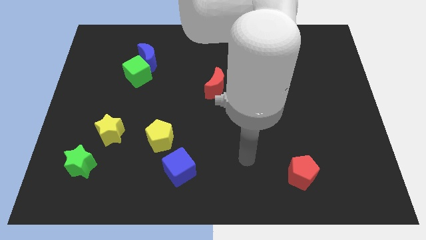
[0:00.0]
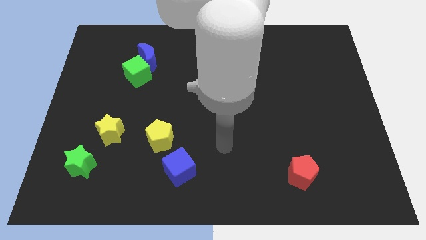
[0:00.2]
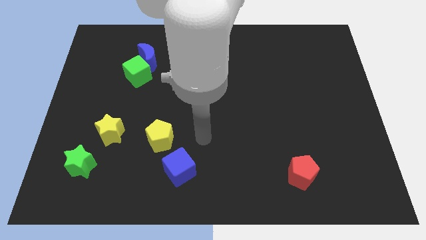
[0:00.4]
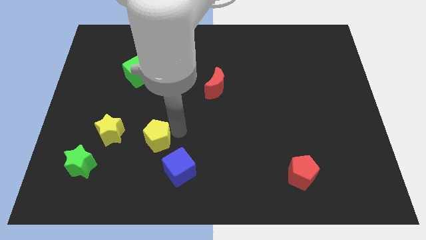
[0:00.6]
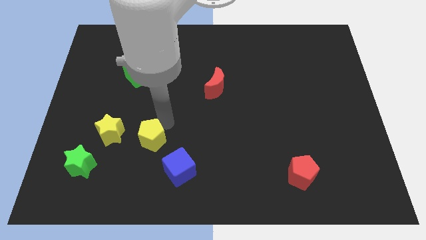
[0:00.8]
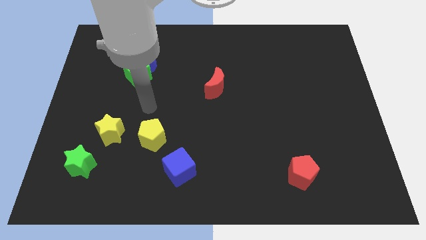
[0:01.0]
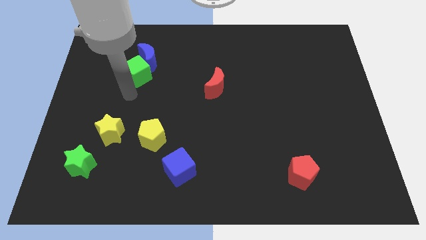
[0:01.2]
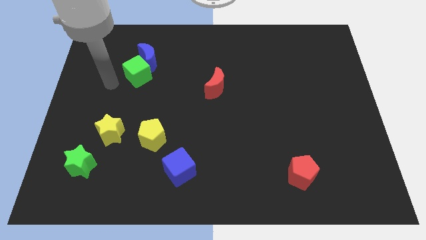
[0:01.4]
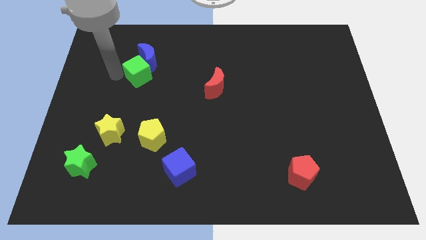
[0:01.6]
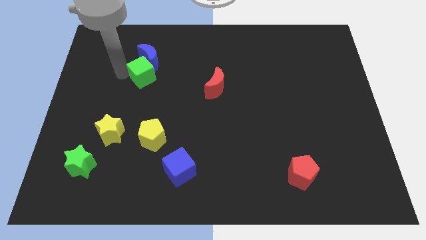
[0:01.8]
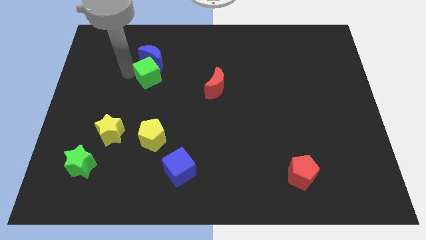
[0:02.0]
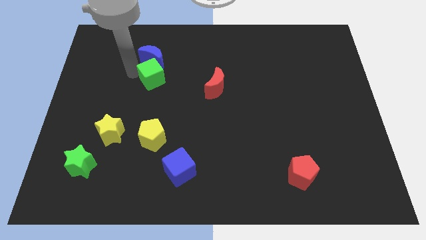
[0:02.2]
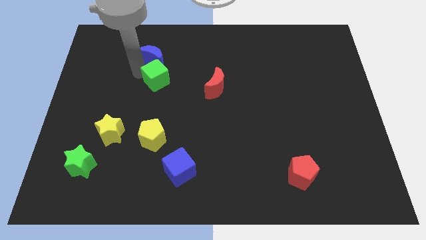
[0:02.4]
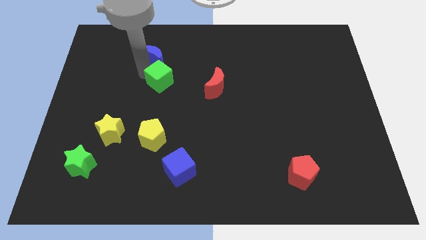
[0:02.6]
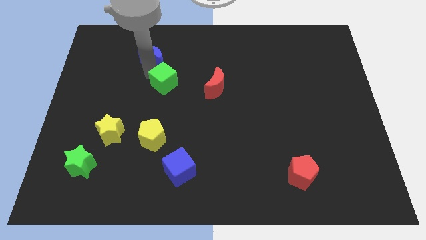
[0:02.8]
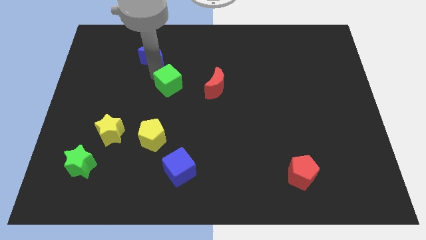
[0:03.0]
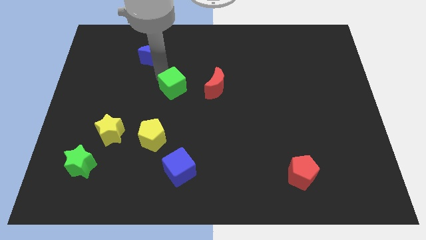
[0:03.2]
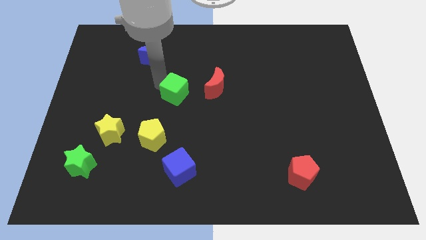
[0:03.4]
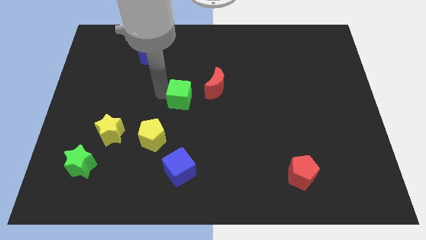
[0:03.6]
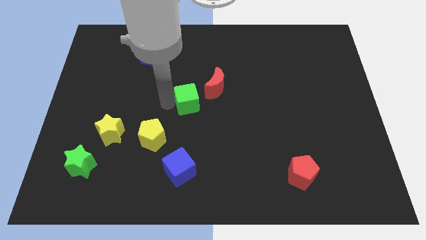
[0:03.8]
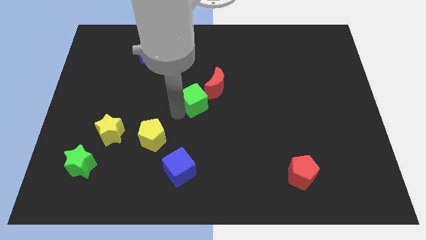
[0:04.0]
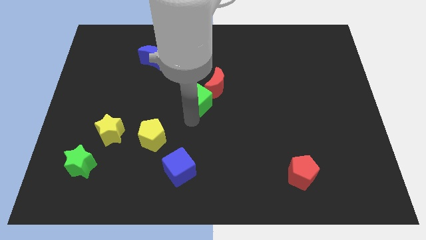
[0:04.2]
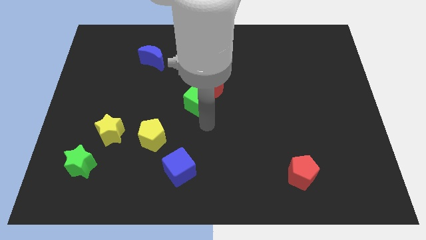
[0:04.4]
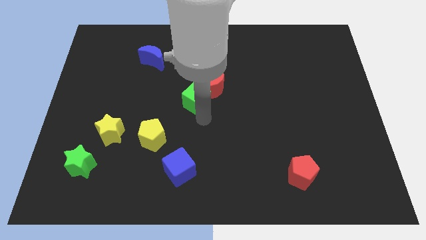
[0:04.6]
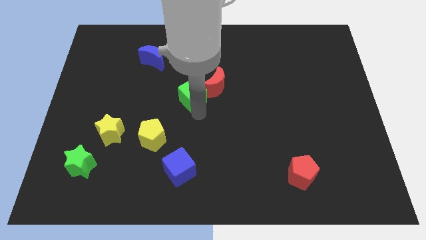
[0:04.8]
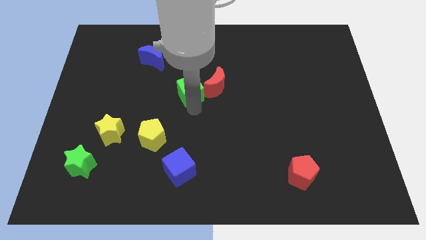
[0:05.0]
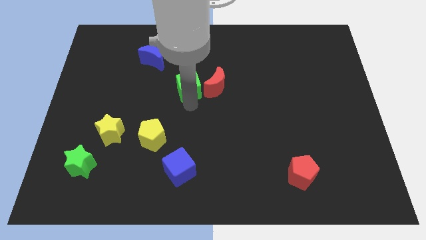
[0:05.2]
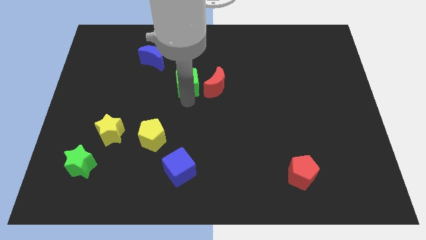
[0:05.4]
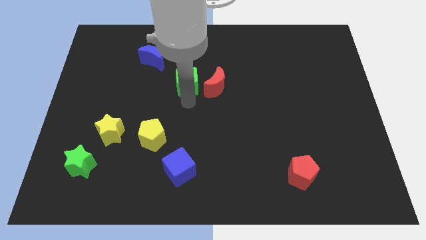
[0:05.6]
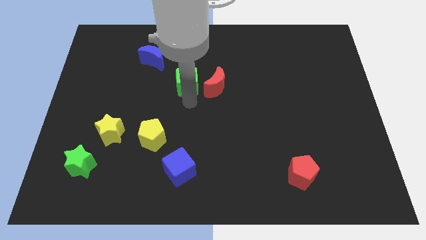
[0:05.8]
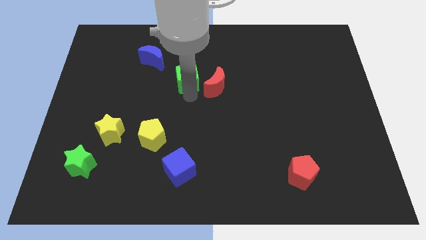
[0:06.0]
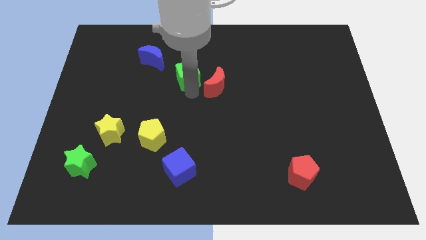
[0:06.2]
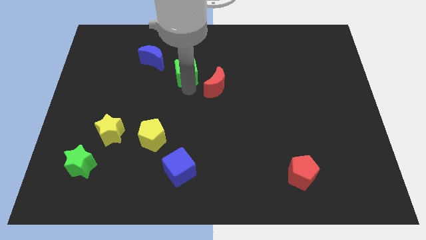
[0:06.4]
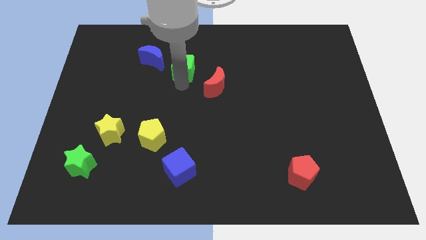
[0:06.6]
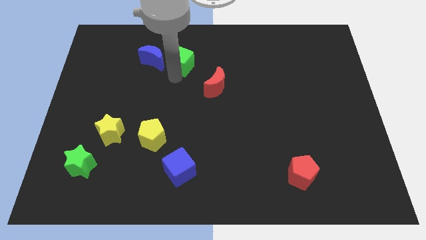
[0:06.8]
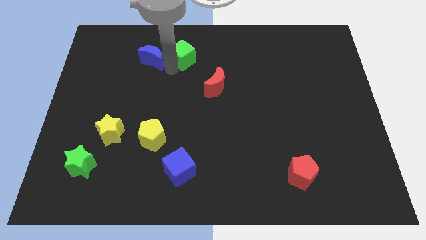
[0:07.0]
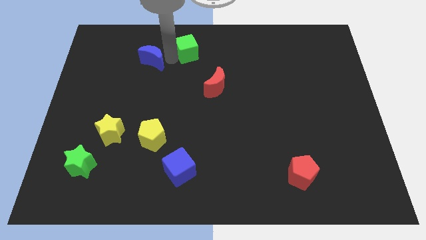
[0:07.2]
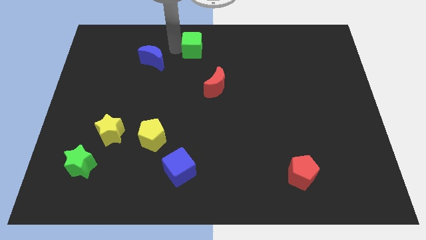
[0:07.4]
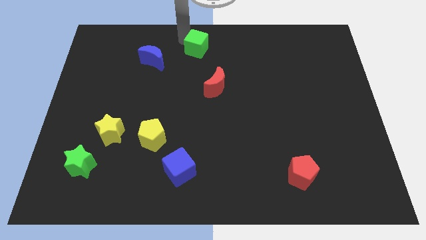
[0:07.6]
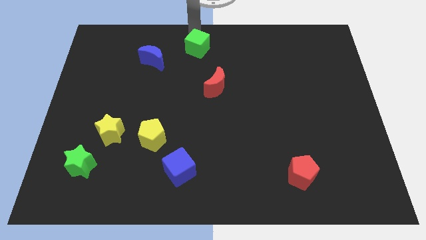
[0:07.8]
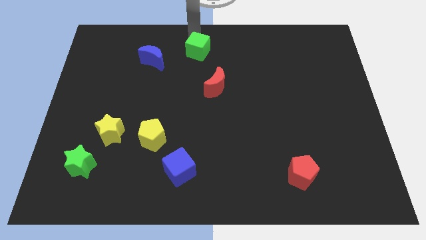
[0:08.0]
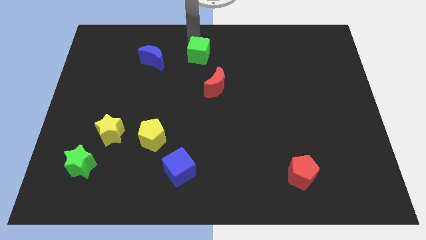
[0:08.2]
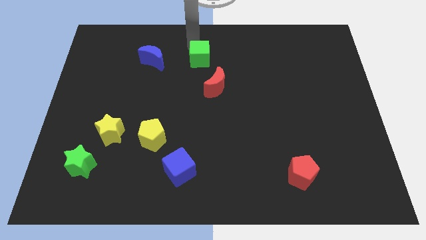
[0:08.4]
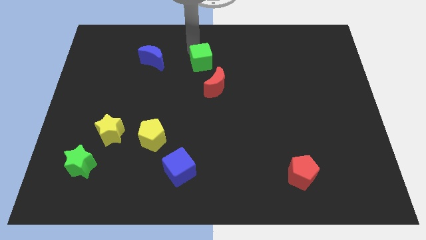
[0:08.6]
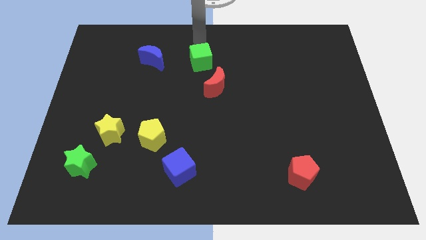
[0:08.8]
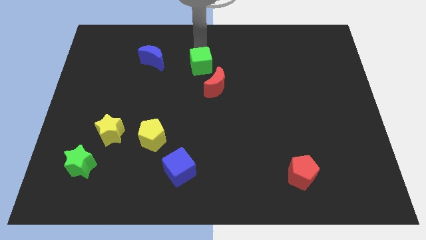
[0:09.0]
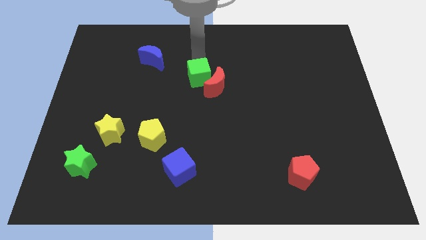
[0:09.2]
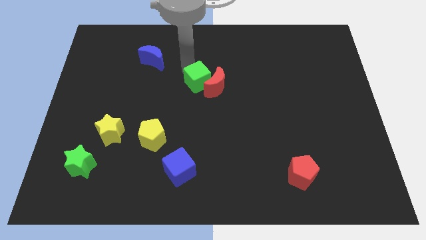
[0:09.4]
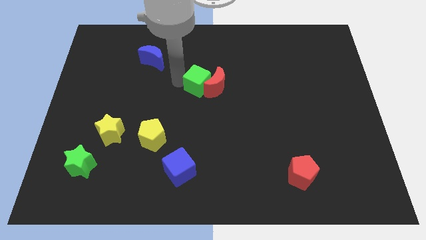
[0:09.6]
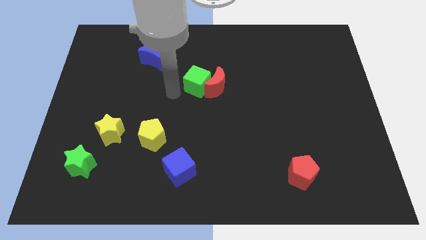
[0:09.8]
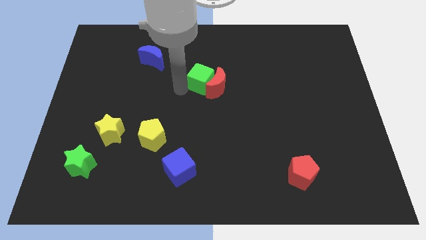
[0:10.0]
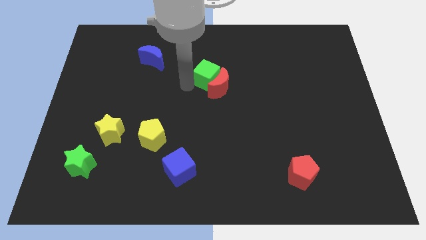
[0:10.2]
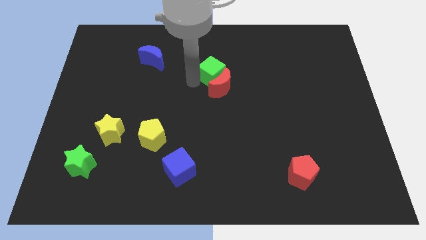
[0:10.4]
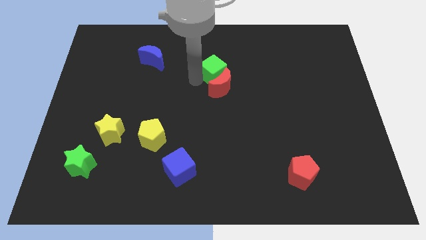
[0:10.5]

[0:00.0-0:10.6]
slide the green cube to the top right of the red moon

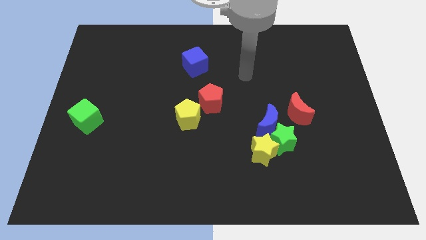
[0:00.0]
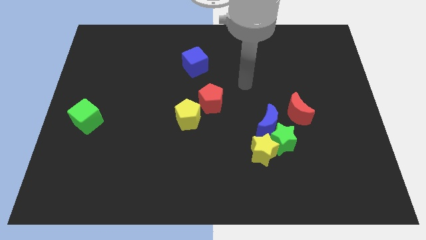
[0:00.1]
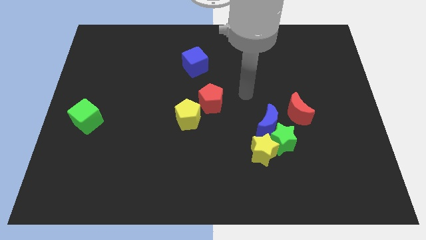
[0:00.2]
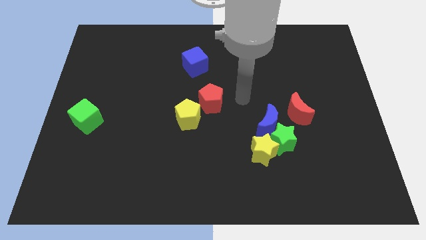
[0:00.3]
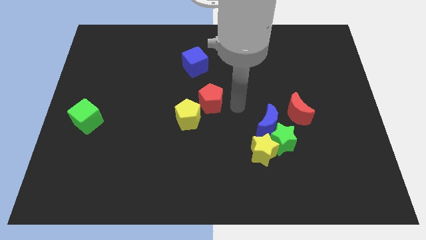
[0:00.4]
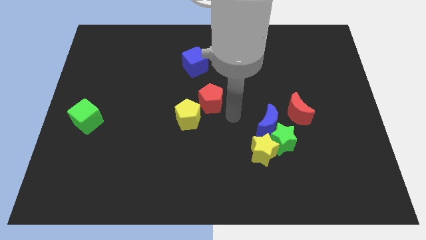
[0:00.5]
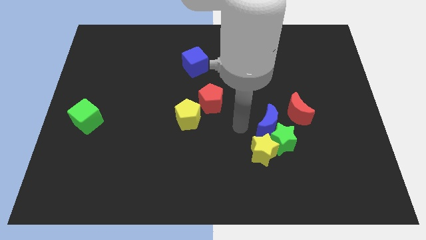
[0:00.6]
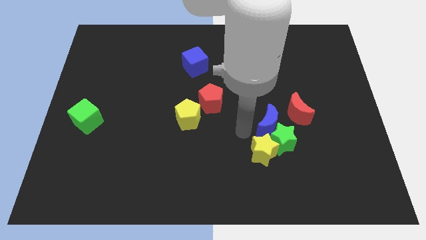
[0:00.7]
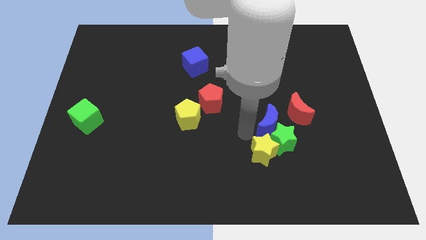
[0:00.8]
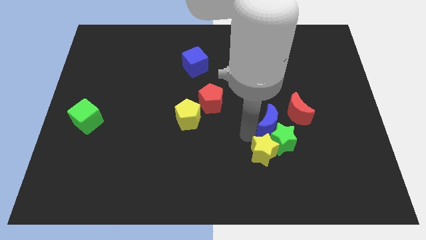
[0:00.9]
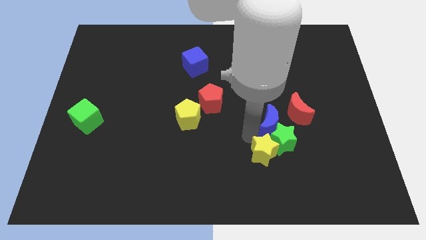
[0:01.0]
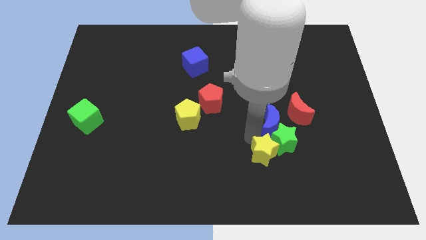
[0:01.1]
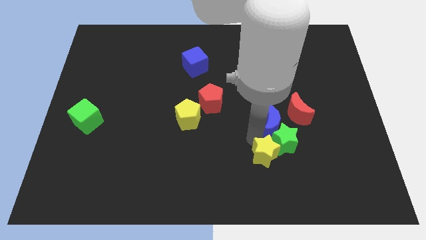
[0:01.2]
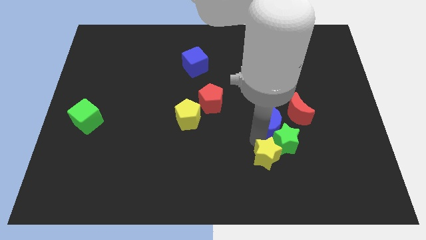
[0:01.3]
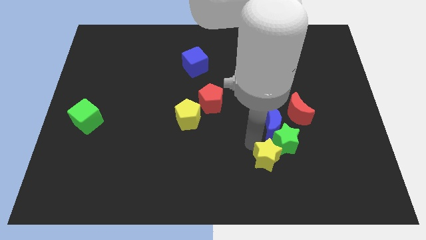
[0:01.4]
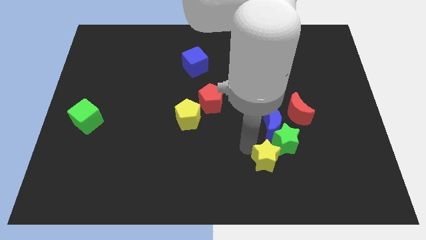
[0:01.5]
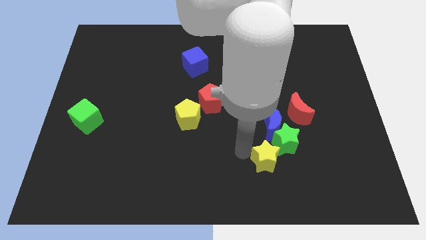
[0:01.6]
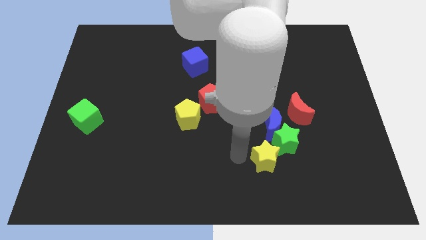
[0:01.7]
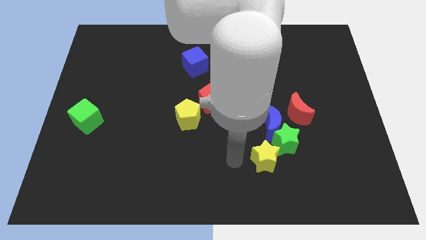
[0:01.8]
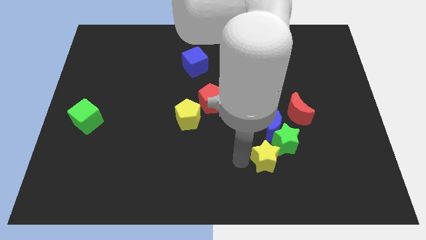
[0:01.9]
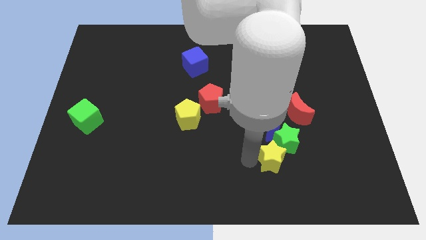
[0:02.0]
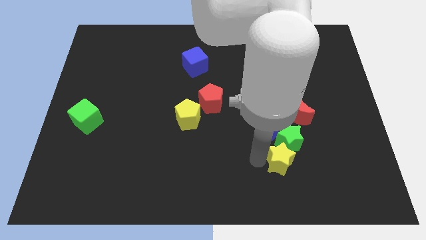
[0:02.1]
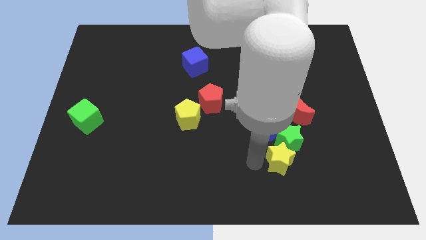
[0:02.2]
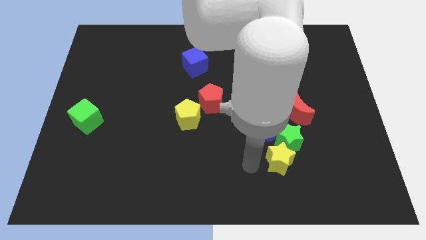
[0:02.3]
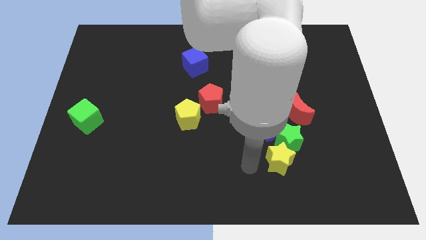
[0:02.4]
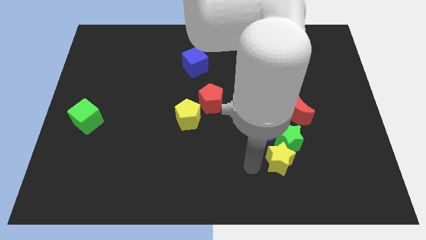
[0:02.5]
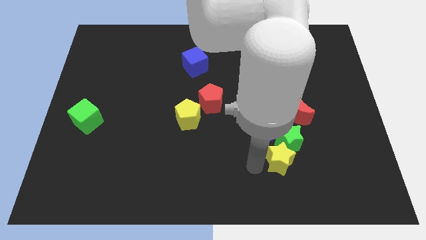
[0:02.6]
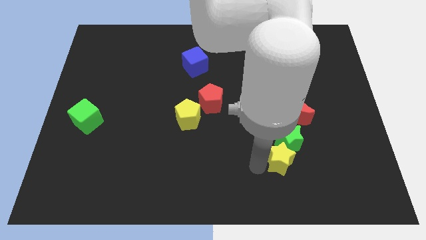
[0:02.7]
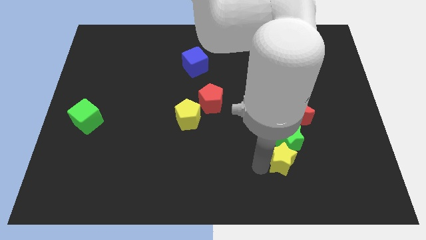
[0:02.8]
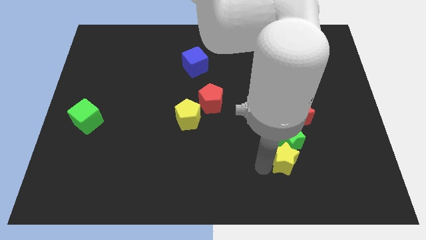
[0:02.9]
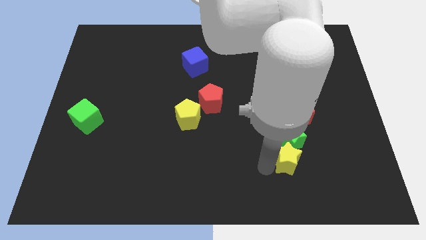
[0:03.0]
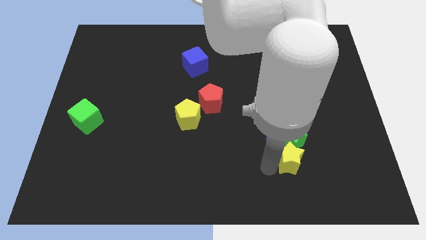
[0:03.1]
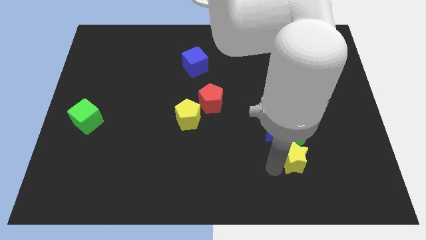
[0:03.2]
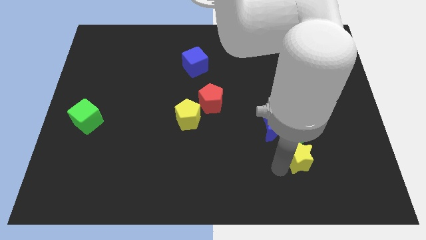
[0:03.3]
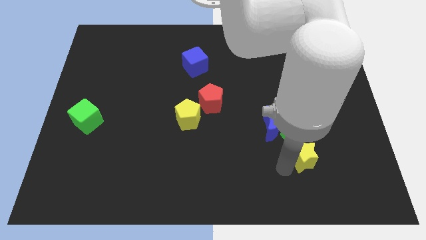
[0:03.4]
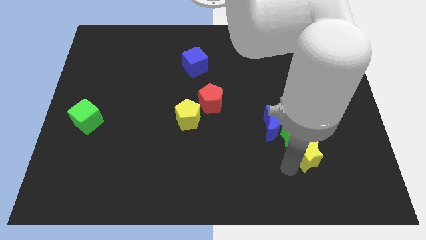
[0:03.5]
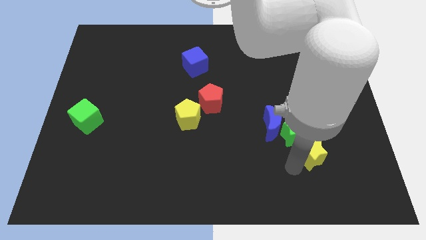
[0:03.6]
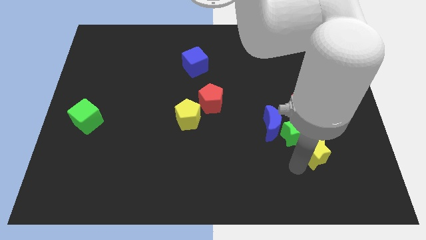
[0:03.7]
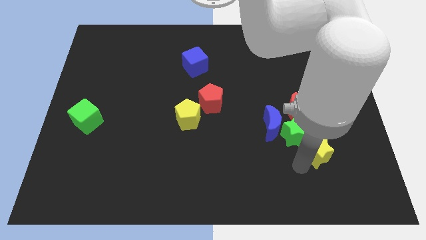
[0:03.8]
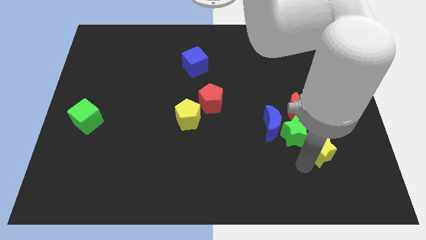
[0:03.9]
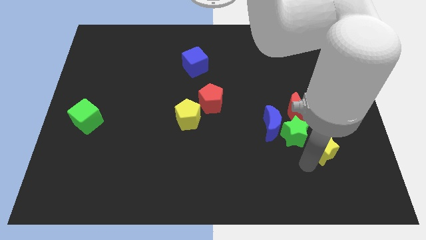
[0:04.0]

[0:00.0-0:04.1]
push the yellow star diagonally down and to the right of the red moon
